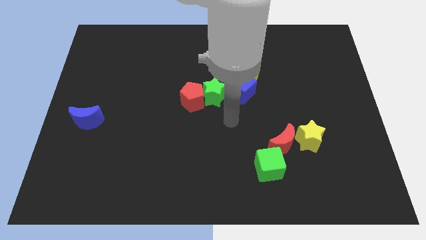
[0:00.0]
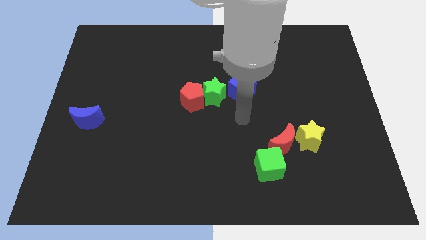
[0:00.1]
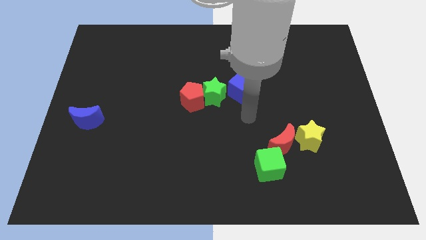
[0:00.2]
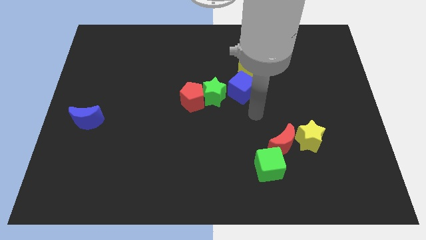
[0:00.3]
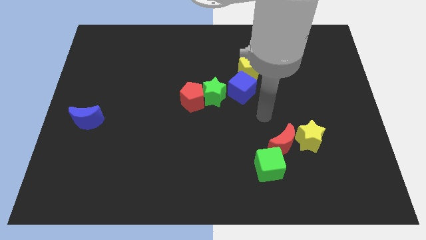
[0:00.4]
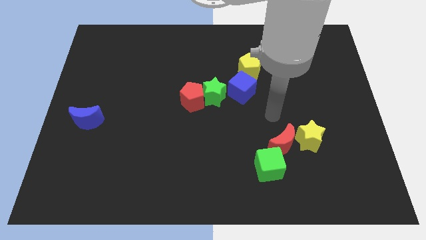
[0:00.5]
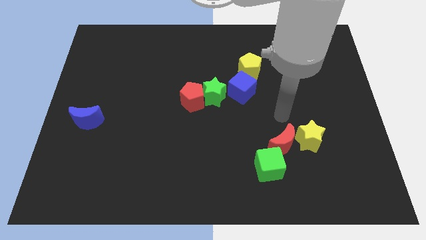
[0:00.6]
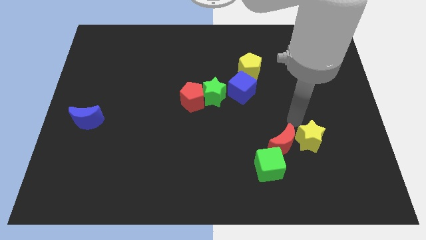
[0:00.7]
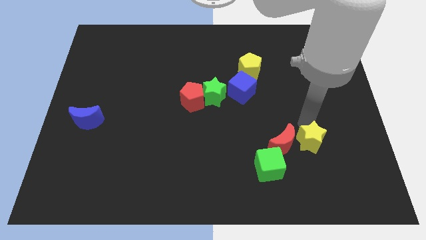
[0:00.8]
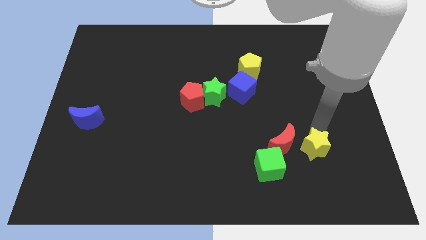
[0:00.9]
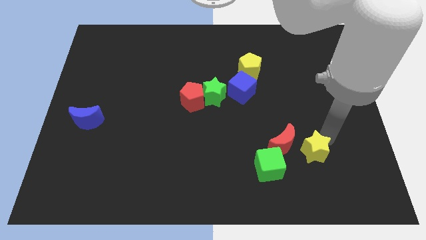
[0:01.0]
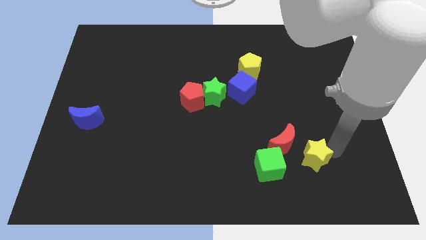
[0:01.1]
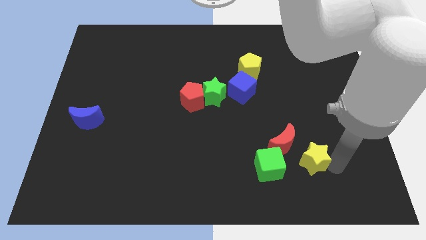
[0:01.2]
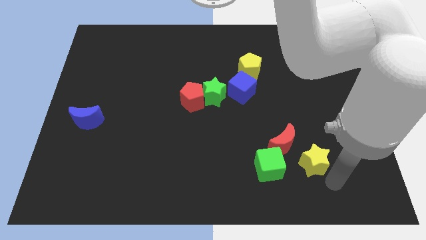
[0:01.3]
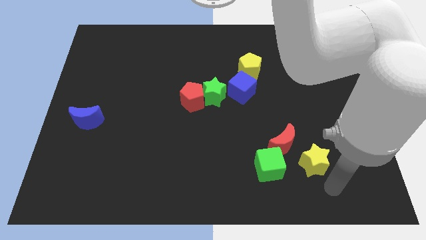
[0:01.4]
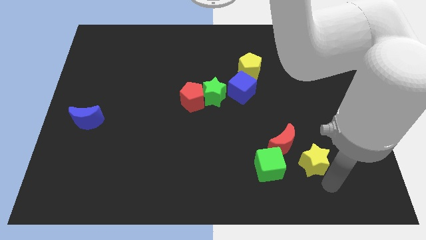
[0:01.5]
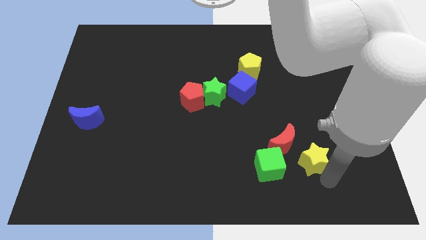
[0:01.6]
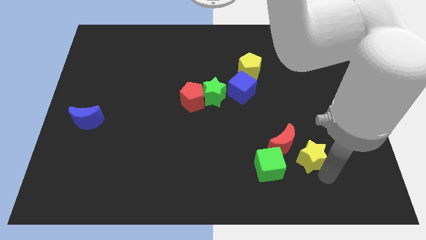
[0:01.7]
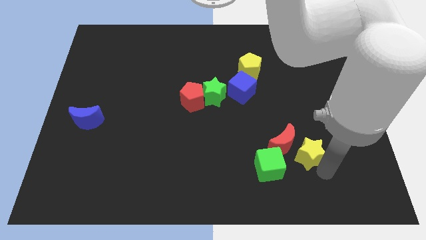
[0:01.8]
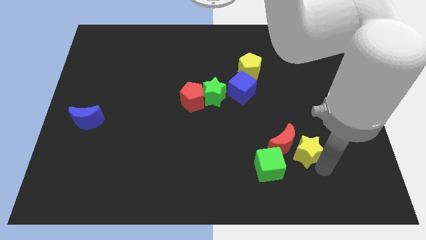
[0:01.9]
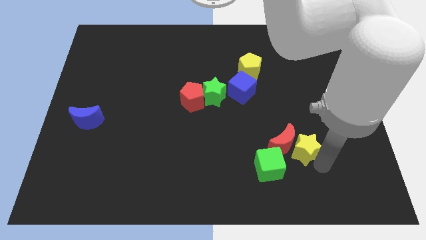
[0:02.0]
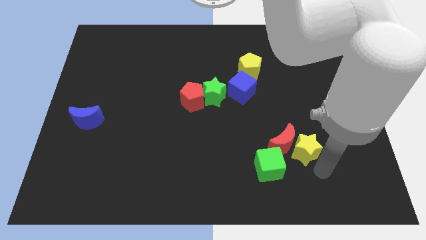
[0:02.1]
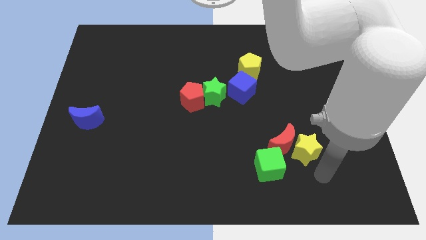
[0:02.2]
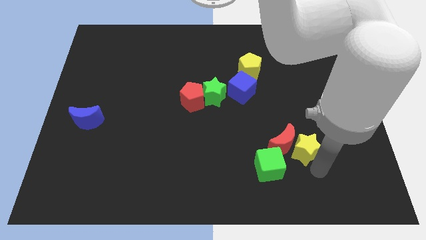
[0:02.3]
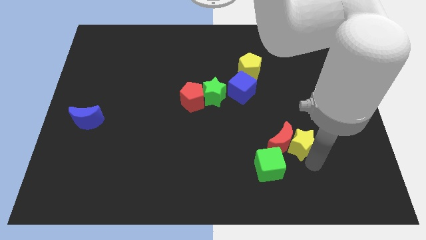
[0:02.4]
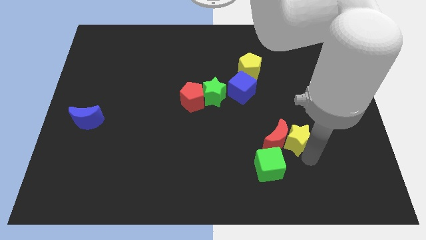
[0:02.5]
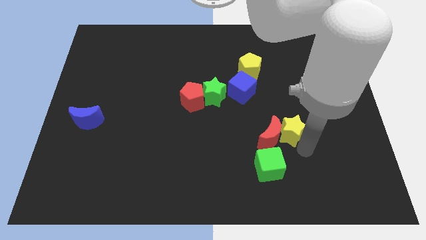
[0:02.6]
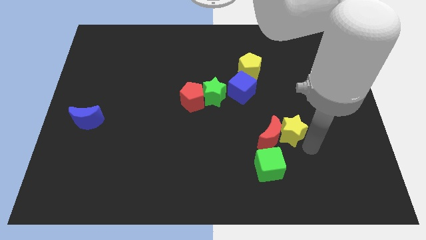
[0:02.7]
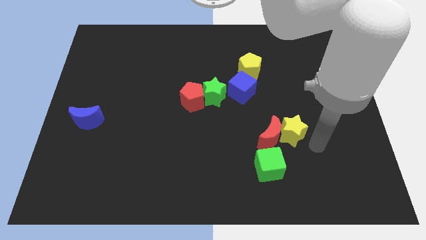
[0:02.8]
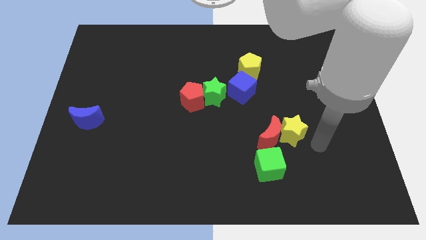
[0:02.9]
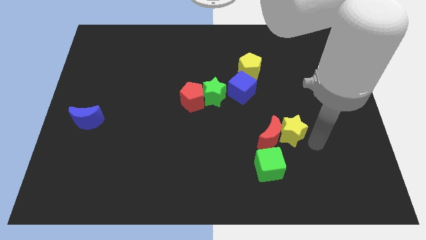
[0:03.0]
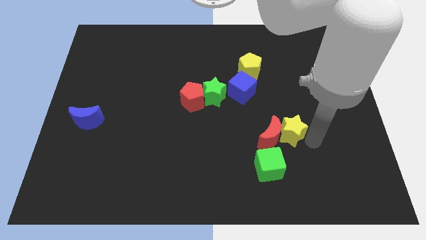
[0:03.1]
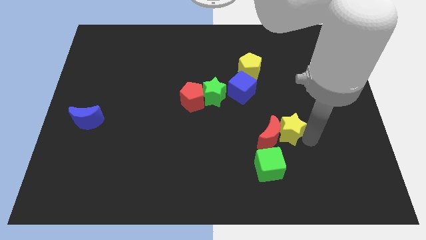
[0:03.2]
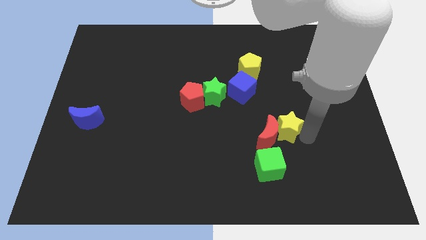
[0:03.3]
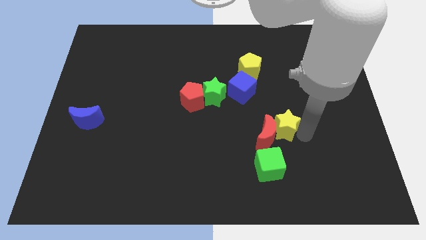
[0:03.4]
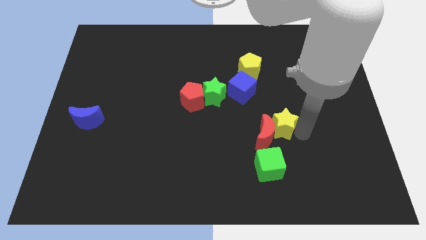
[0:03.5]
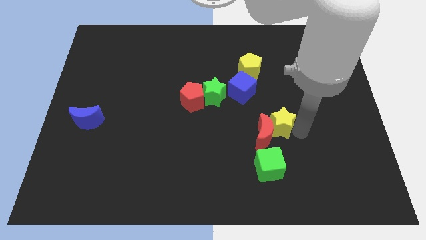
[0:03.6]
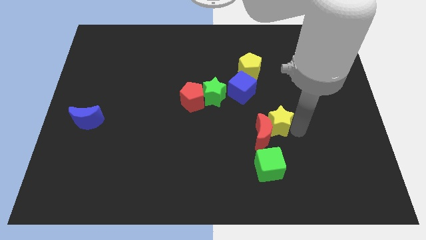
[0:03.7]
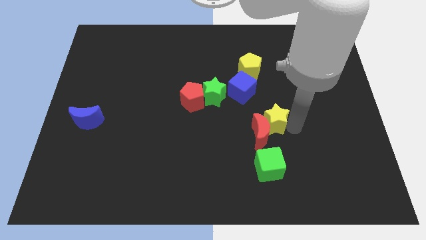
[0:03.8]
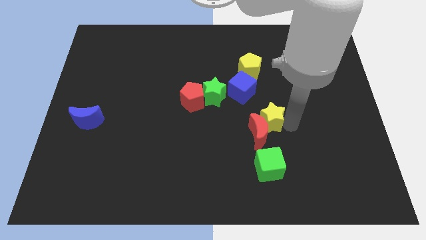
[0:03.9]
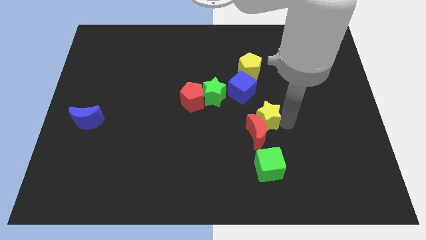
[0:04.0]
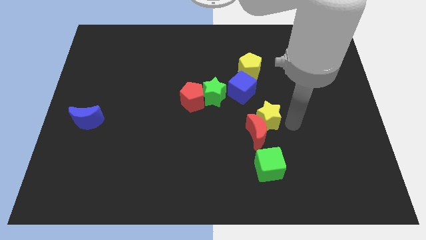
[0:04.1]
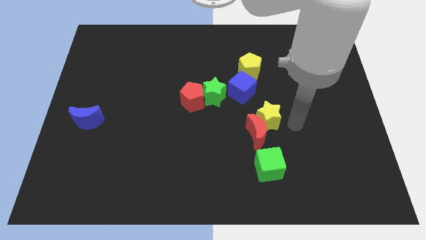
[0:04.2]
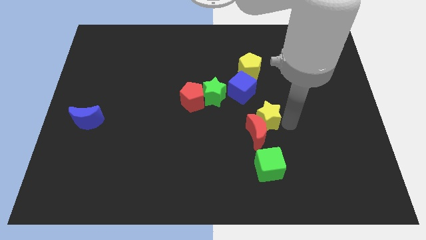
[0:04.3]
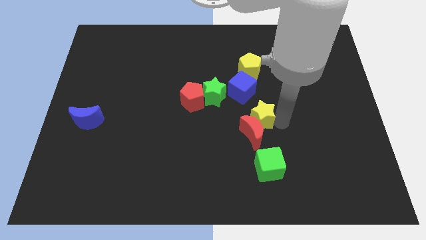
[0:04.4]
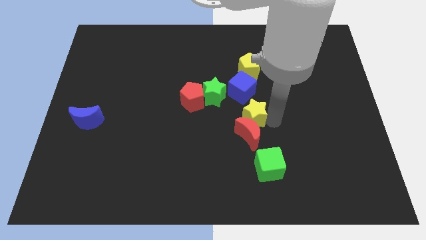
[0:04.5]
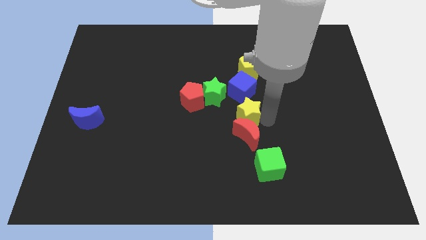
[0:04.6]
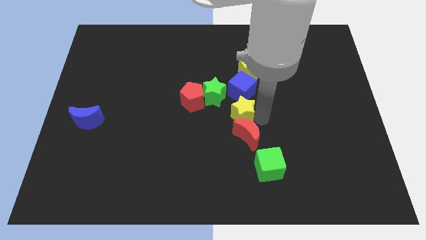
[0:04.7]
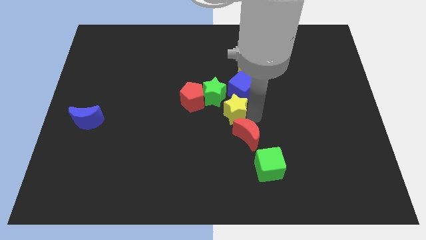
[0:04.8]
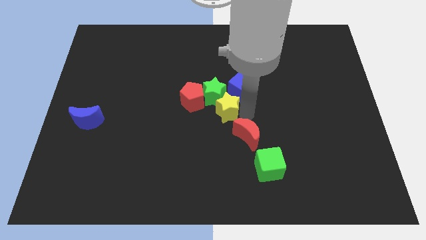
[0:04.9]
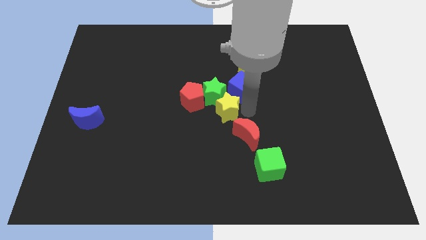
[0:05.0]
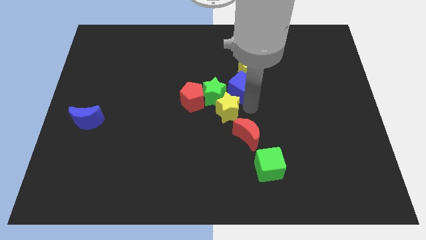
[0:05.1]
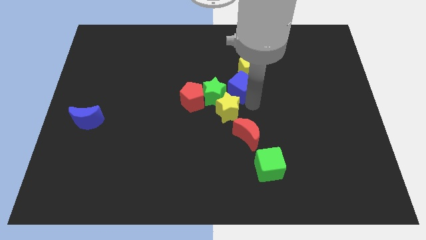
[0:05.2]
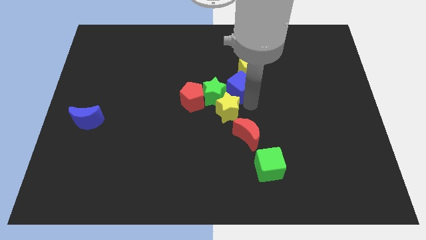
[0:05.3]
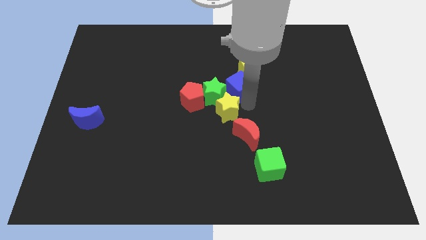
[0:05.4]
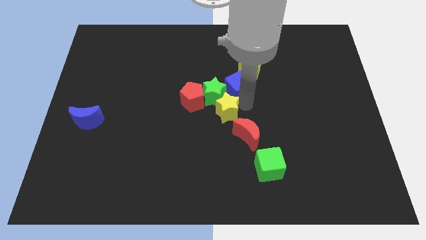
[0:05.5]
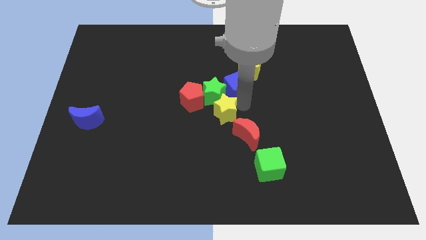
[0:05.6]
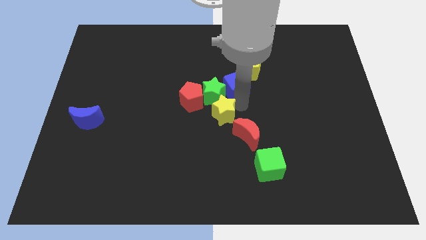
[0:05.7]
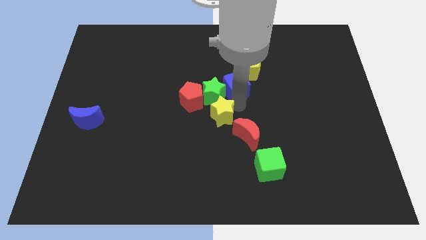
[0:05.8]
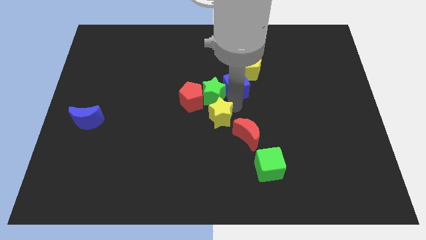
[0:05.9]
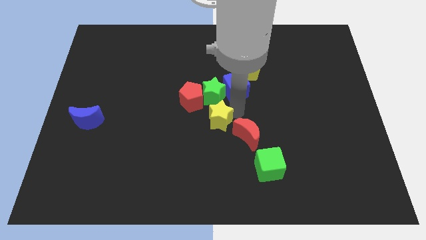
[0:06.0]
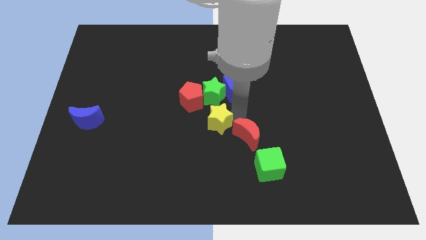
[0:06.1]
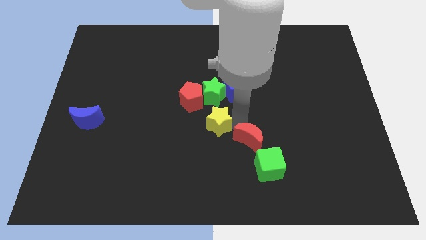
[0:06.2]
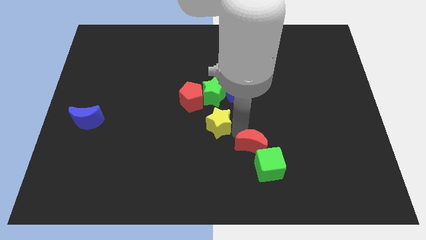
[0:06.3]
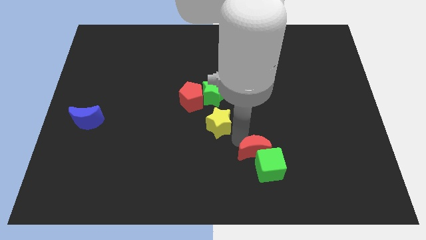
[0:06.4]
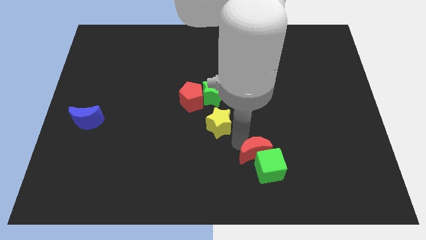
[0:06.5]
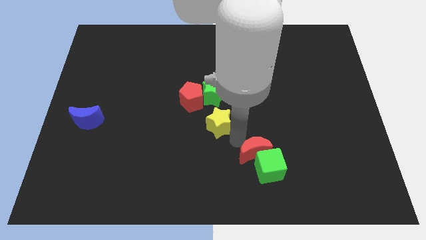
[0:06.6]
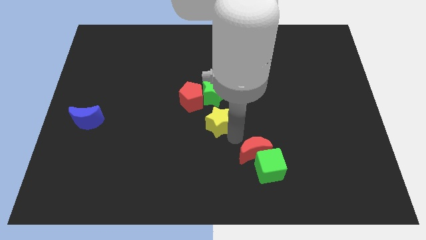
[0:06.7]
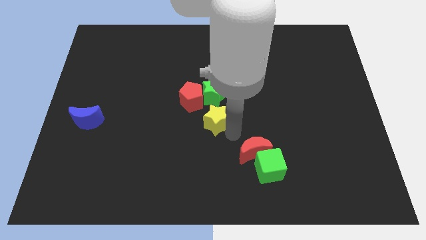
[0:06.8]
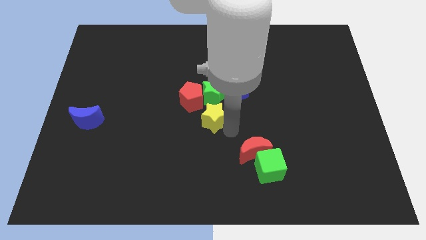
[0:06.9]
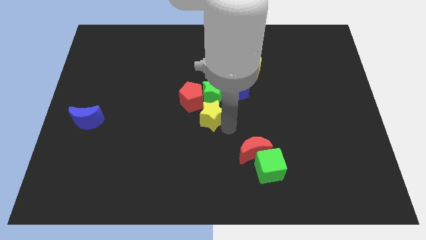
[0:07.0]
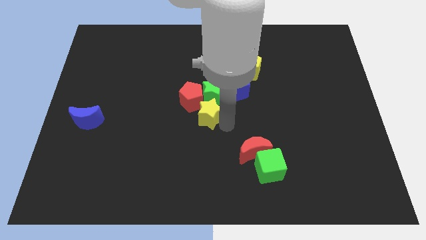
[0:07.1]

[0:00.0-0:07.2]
move the yellow star next to the red pentagon

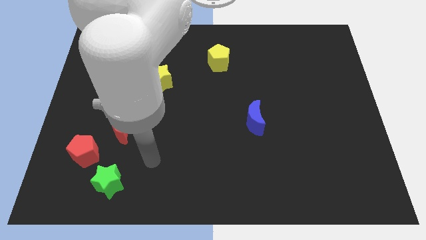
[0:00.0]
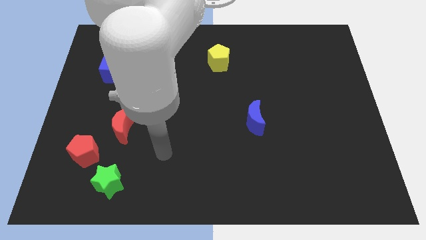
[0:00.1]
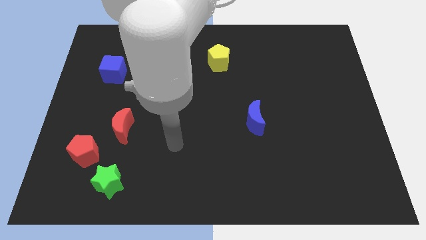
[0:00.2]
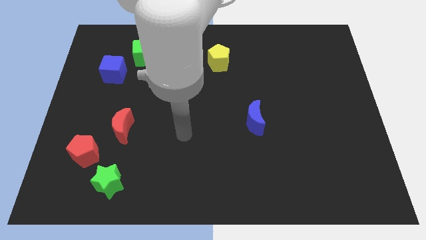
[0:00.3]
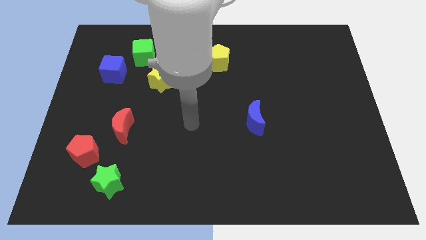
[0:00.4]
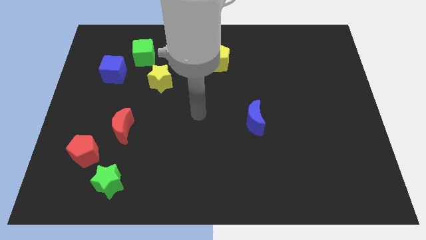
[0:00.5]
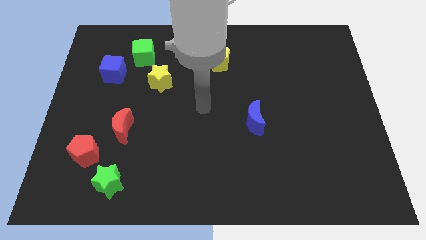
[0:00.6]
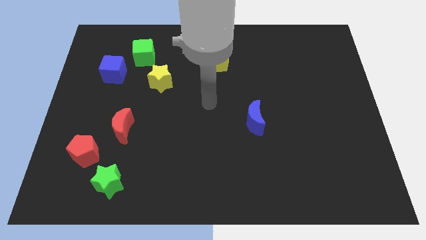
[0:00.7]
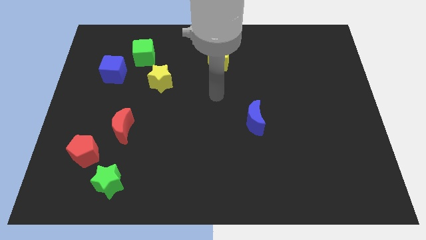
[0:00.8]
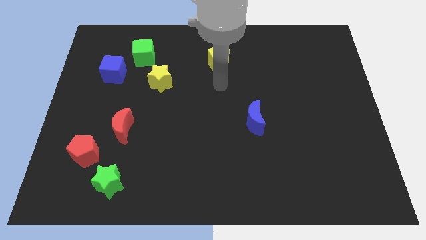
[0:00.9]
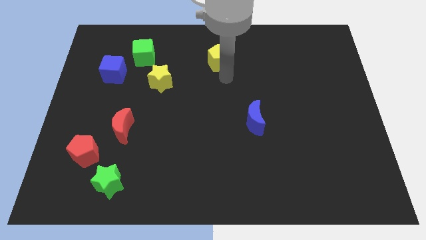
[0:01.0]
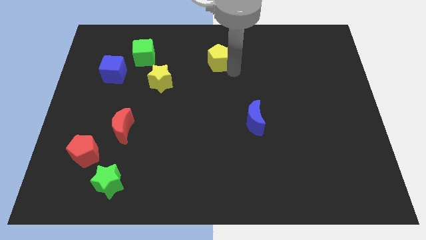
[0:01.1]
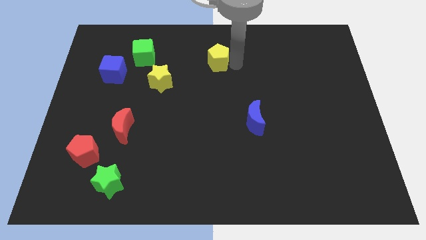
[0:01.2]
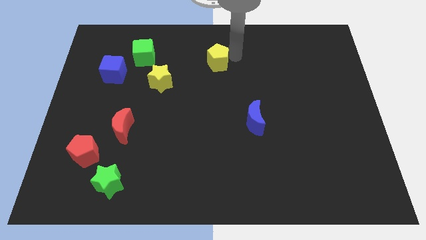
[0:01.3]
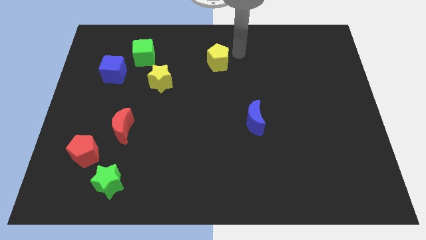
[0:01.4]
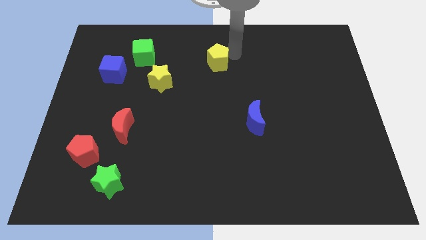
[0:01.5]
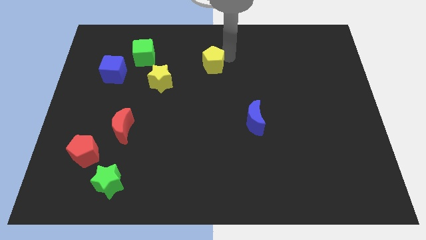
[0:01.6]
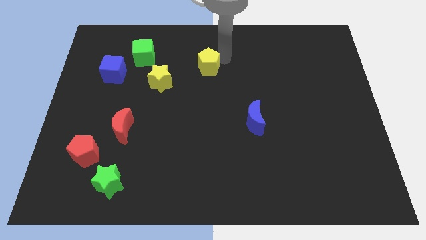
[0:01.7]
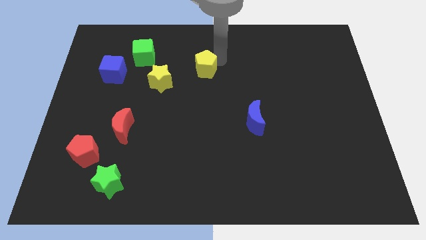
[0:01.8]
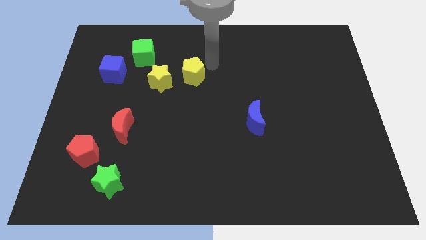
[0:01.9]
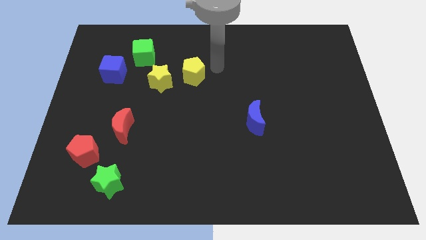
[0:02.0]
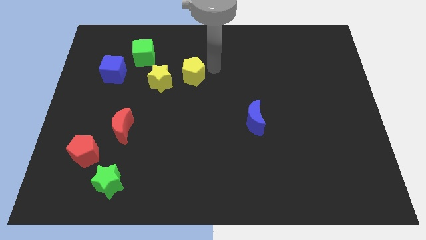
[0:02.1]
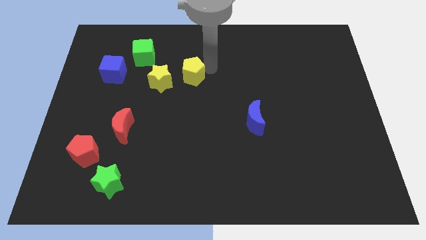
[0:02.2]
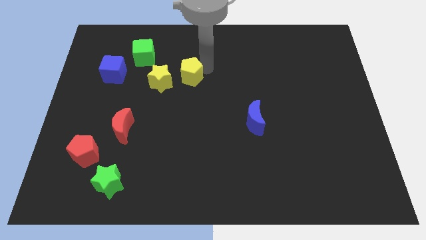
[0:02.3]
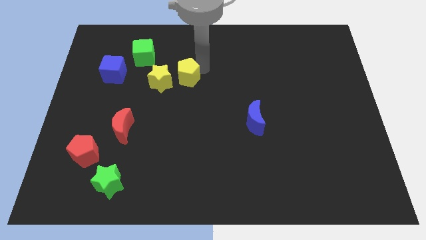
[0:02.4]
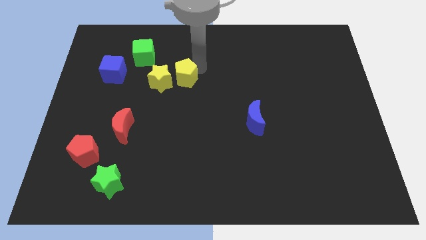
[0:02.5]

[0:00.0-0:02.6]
put the yellow pentagon to the yellow star
